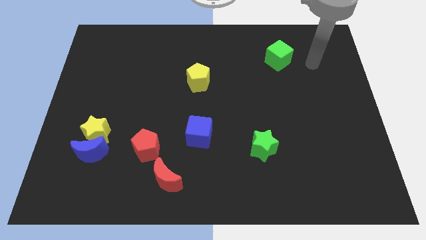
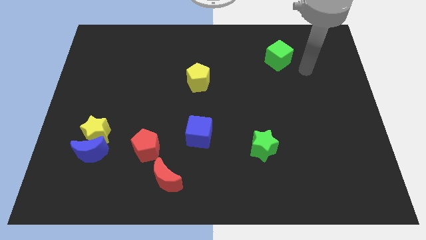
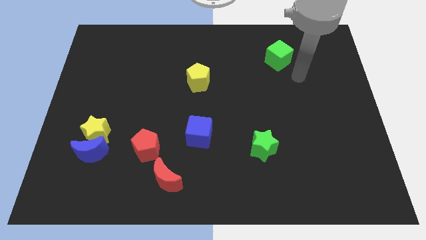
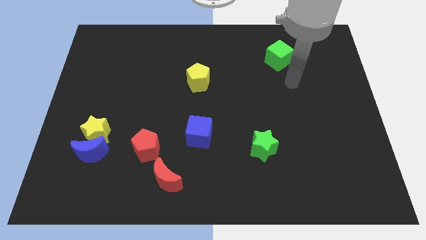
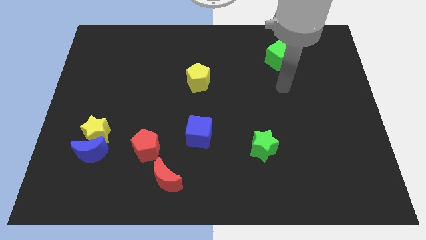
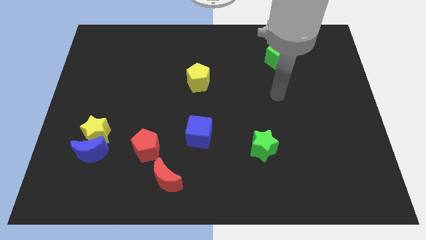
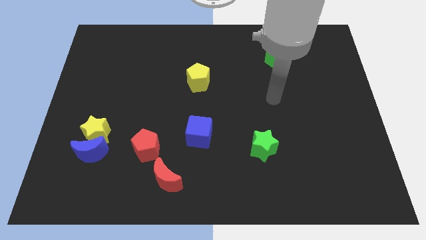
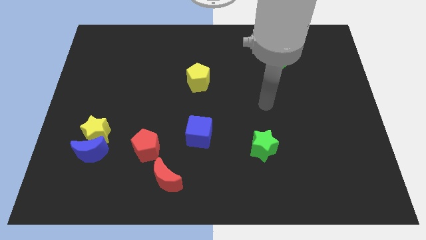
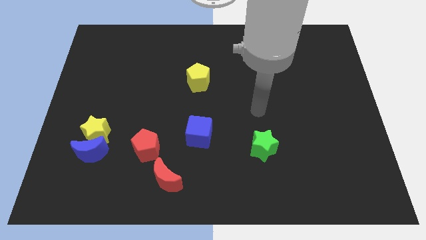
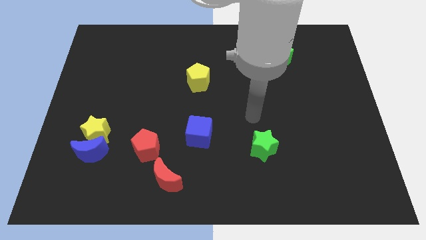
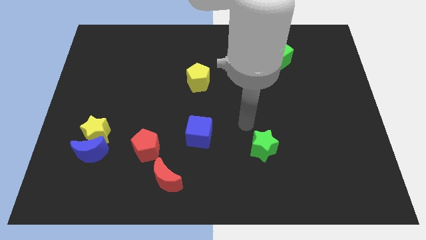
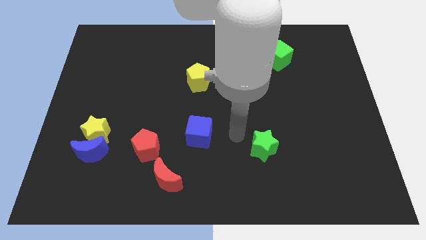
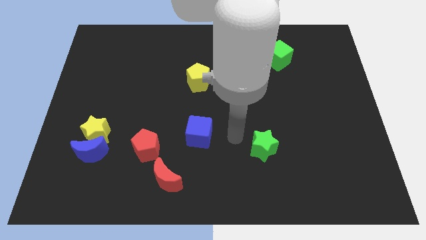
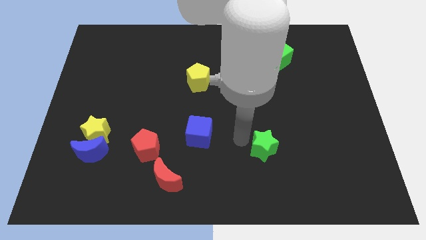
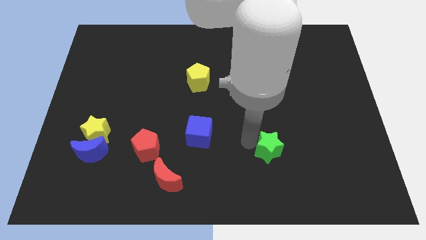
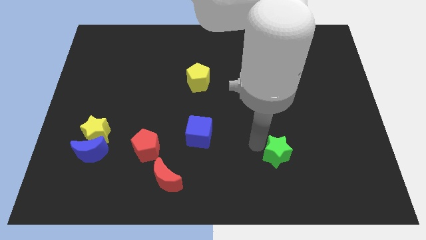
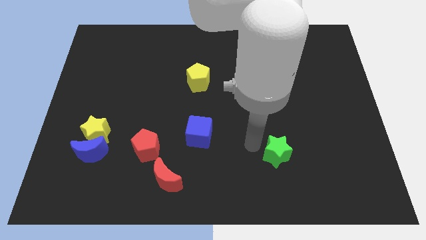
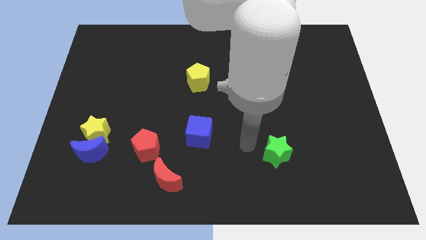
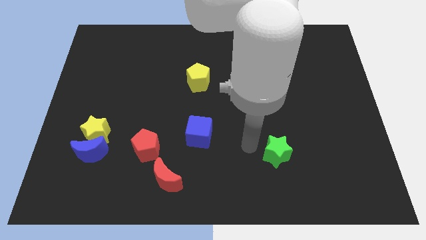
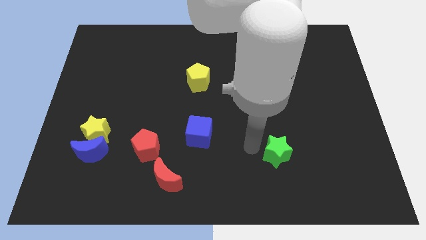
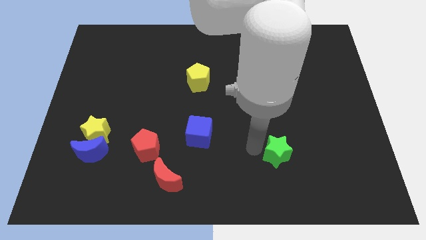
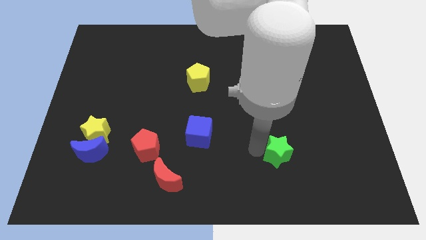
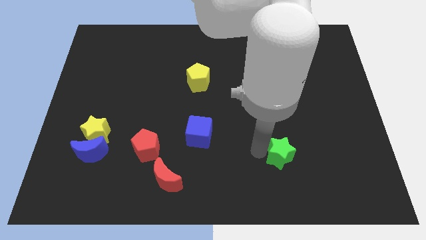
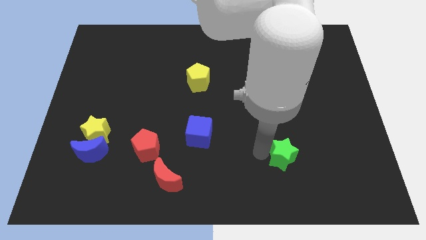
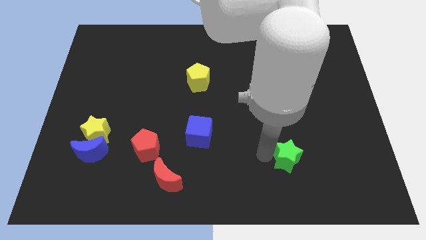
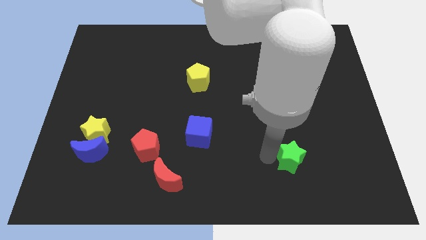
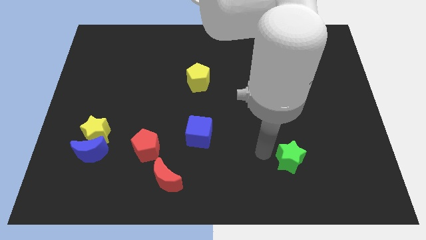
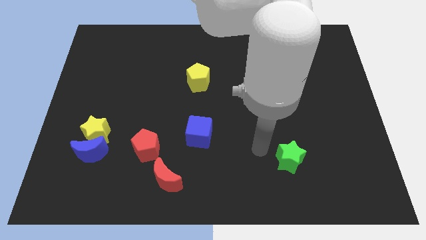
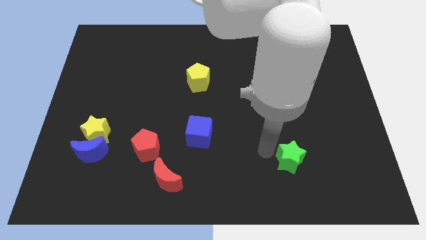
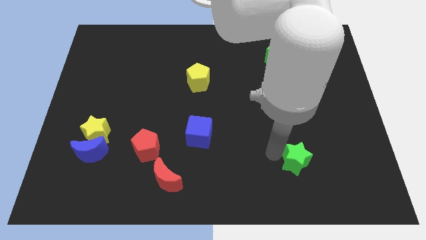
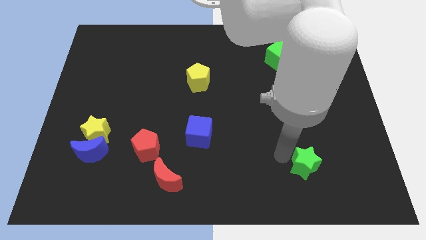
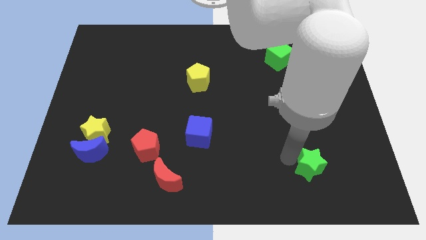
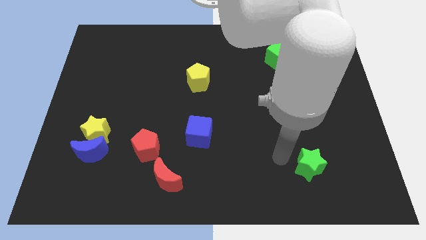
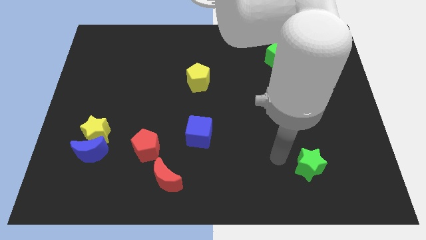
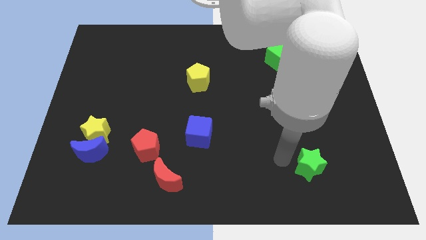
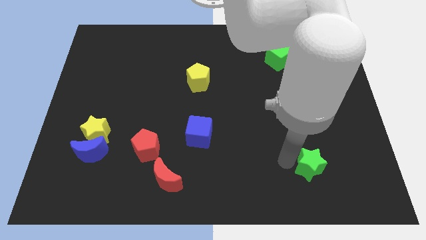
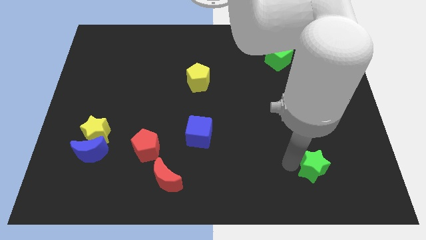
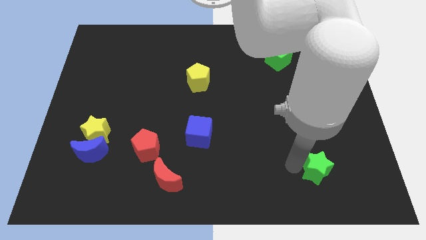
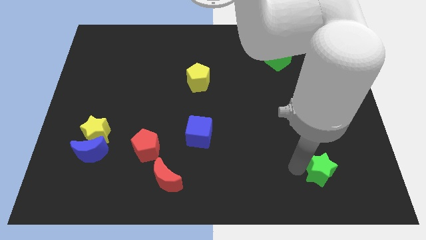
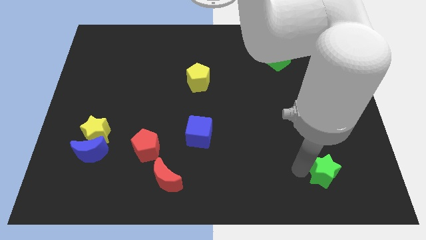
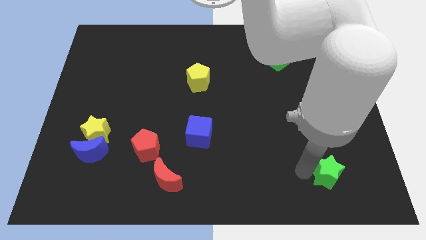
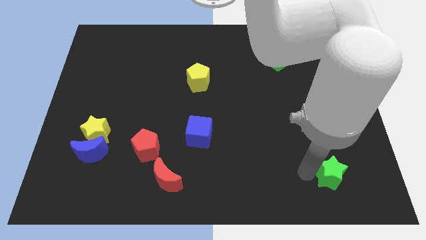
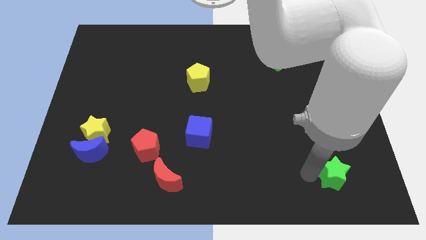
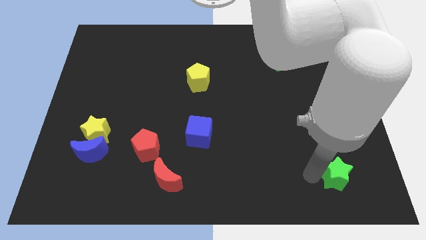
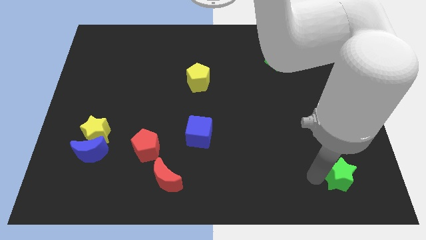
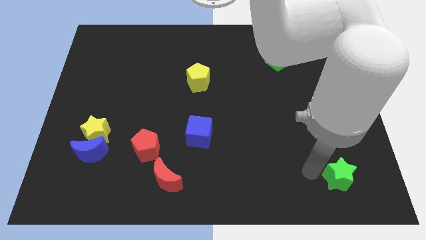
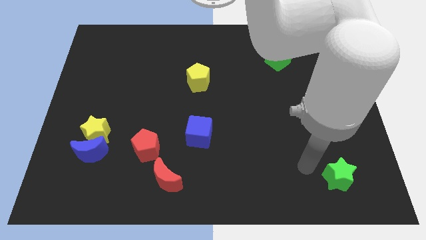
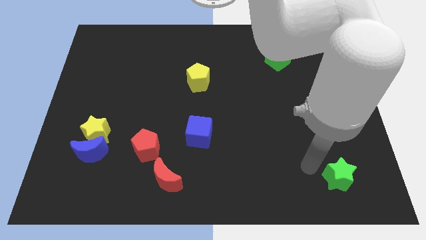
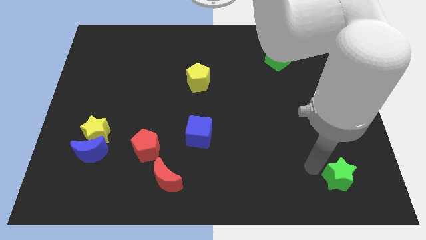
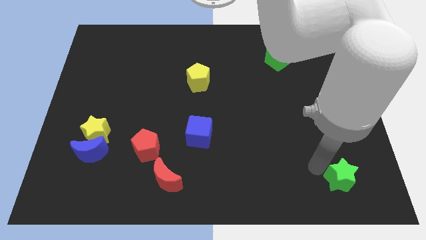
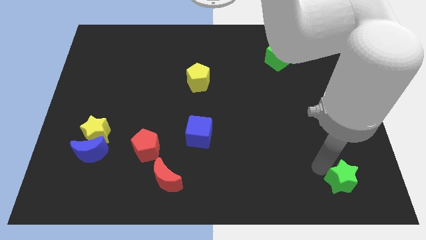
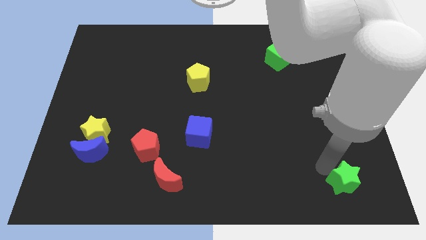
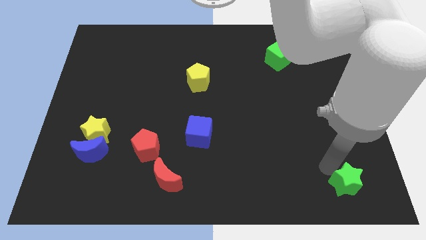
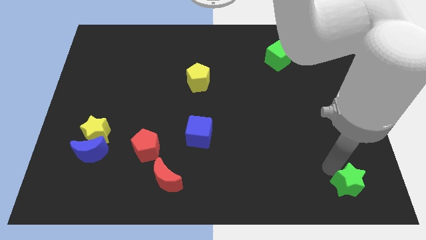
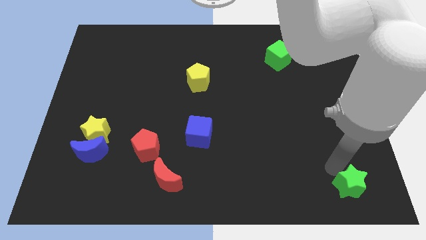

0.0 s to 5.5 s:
put the green star to the lower right corner

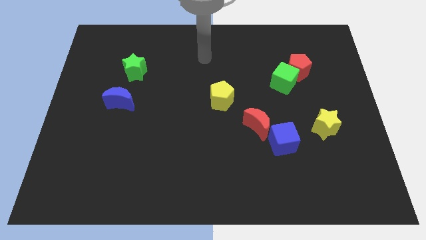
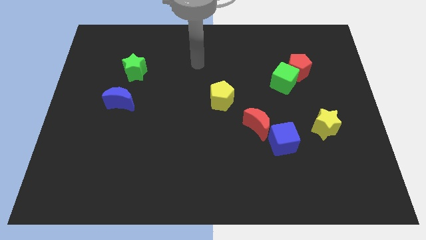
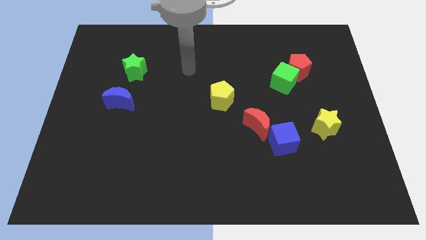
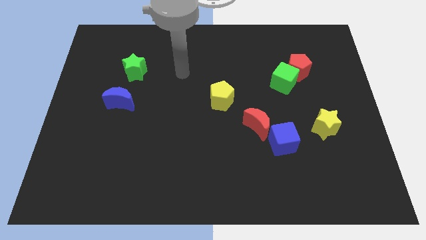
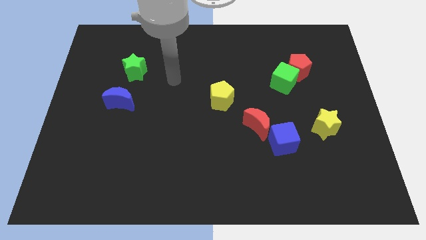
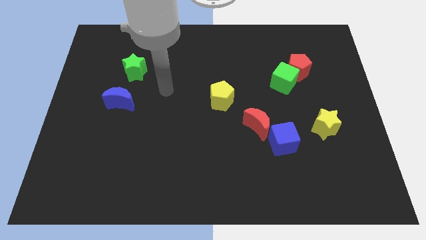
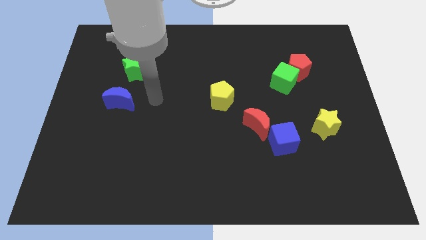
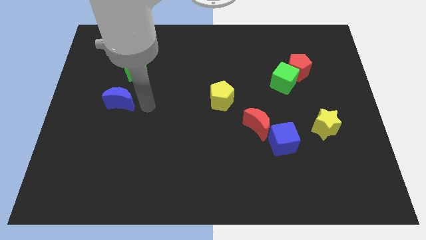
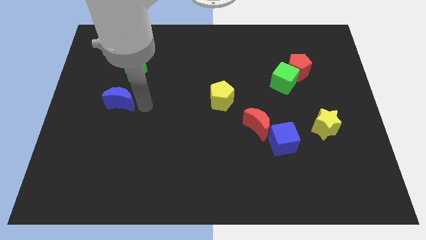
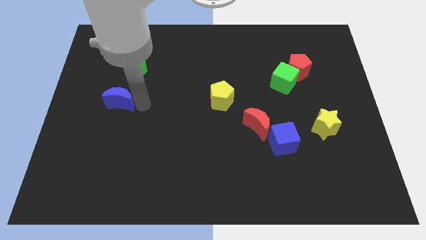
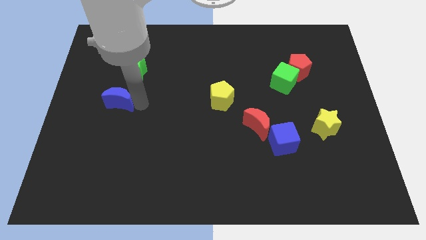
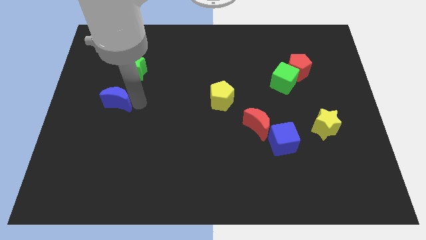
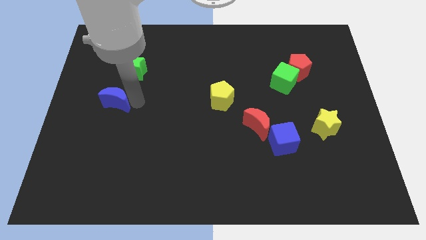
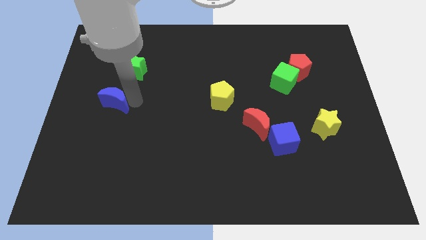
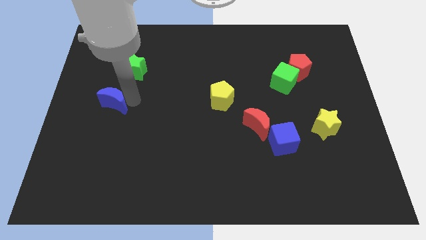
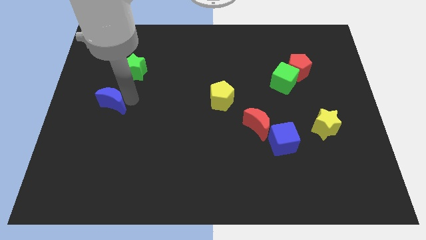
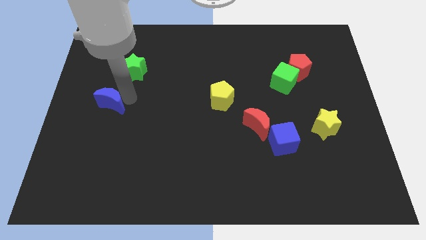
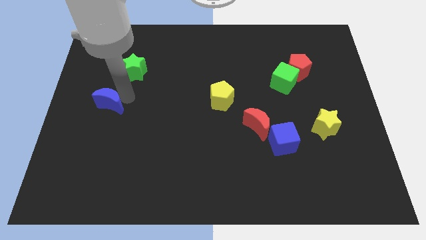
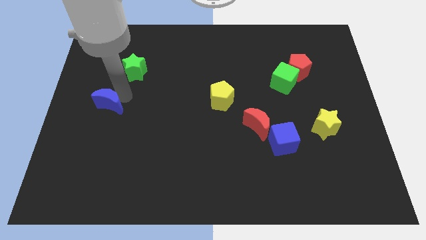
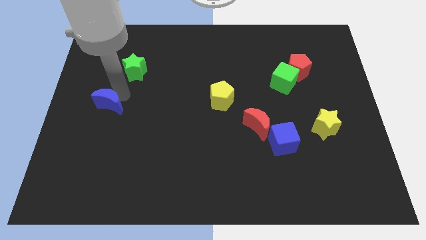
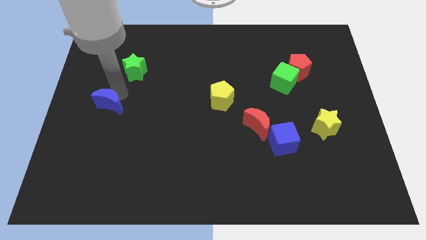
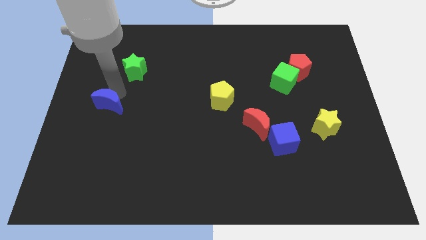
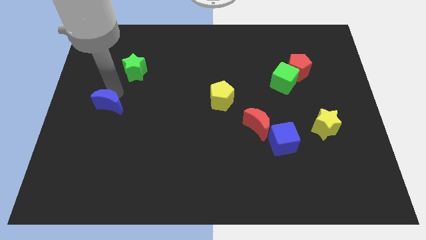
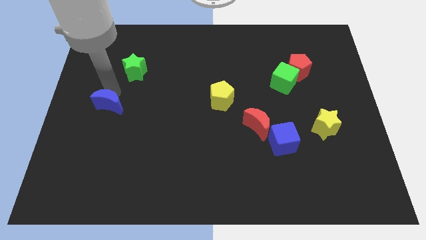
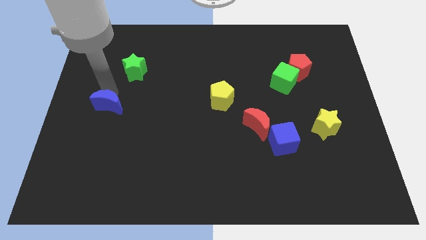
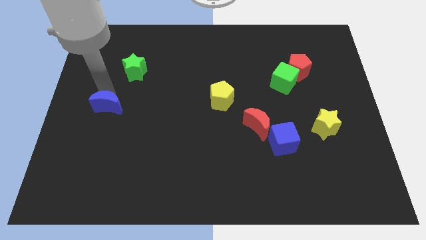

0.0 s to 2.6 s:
slide the blue moon to the left side of the board
